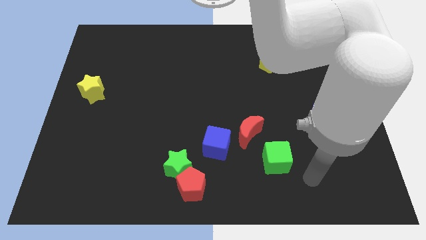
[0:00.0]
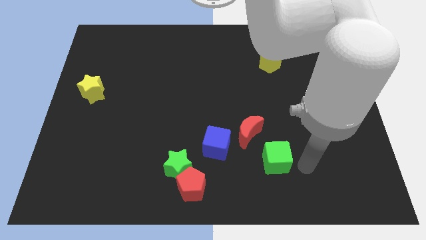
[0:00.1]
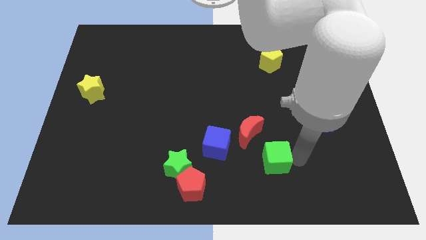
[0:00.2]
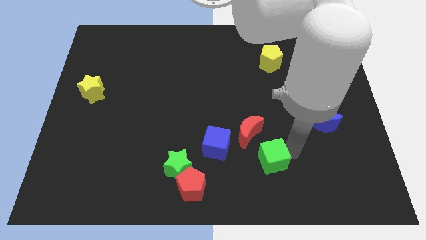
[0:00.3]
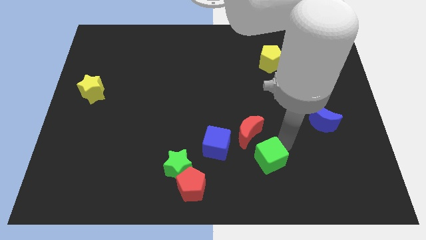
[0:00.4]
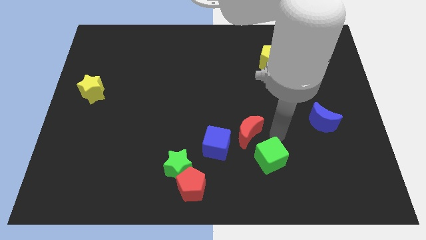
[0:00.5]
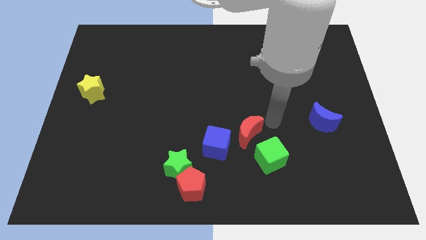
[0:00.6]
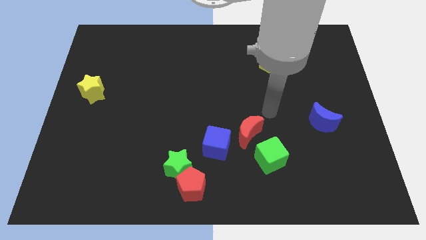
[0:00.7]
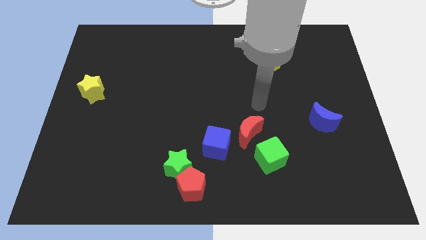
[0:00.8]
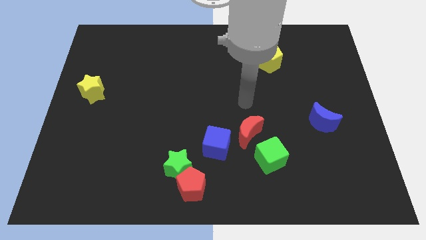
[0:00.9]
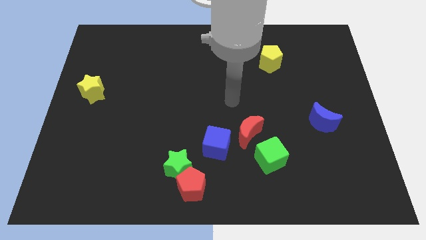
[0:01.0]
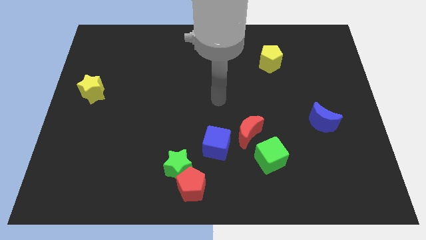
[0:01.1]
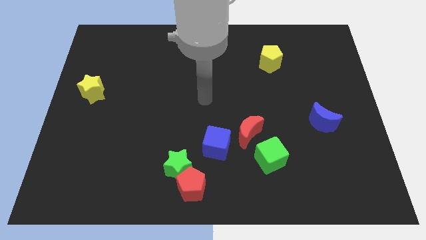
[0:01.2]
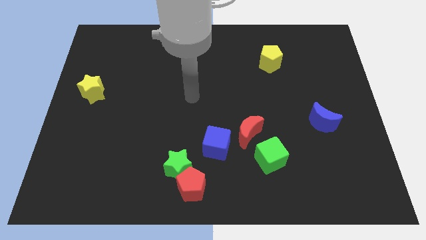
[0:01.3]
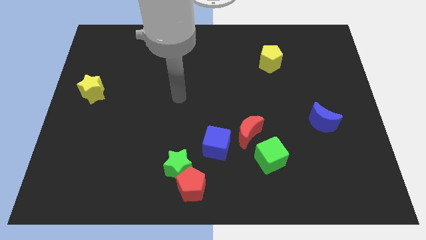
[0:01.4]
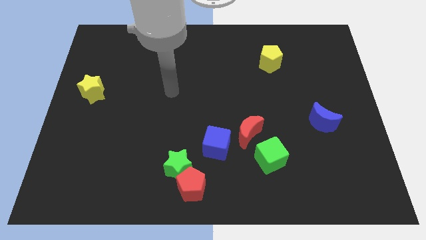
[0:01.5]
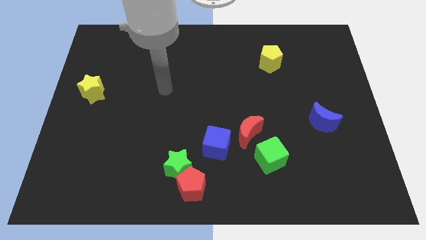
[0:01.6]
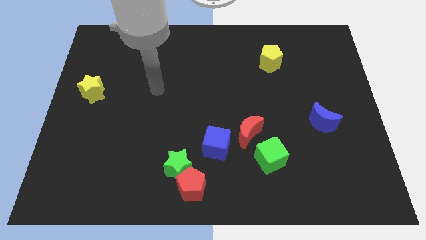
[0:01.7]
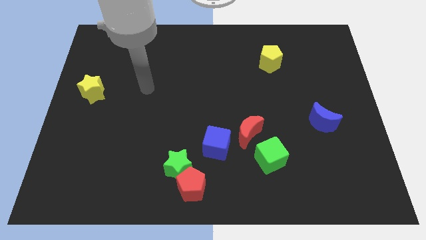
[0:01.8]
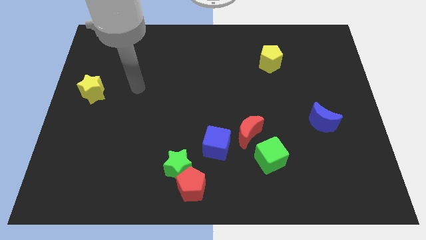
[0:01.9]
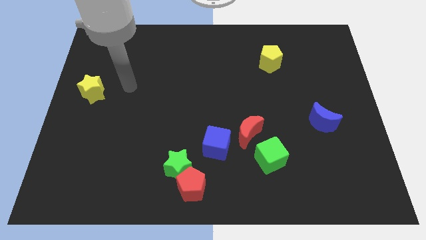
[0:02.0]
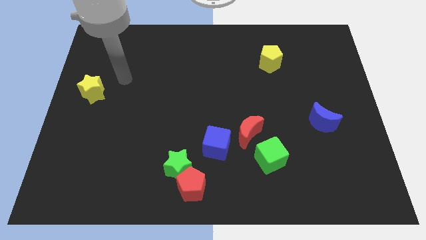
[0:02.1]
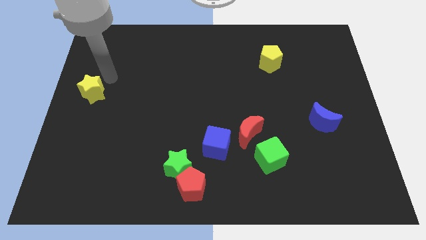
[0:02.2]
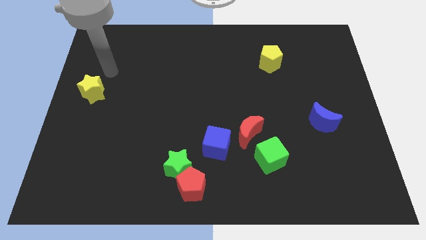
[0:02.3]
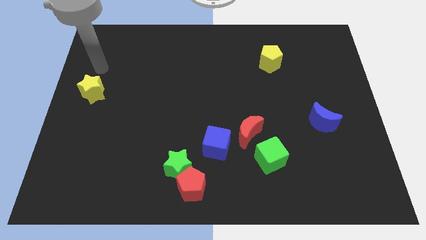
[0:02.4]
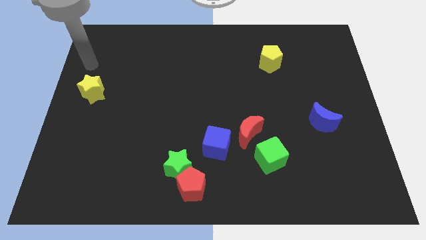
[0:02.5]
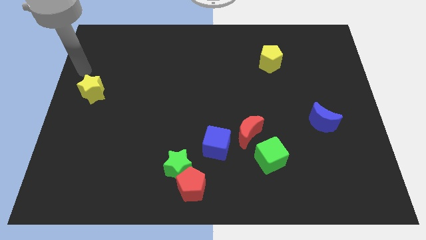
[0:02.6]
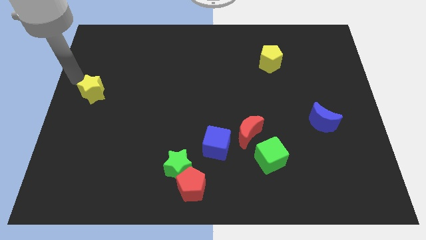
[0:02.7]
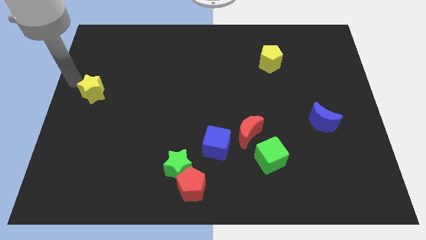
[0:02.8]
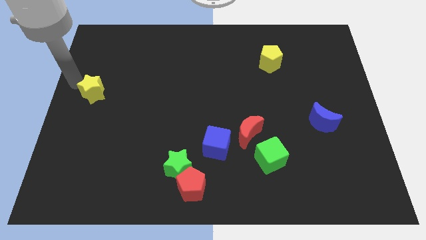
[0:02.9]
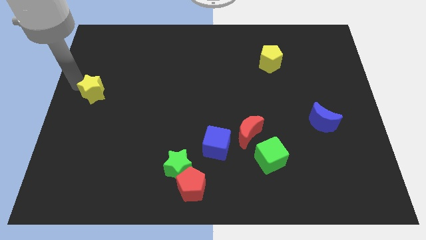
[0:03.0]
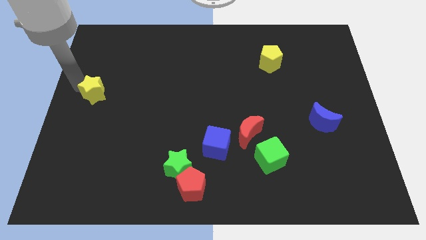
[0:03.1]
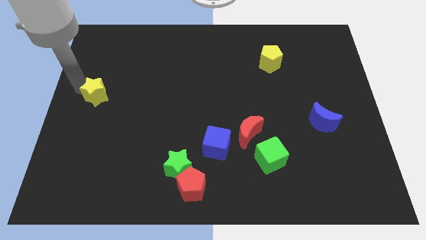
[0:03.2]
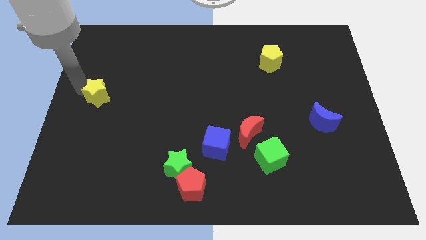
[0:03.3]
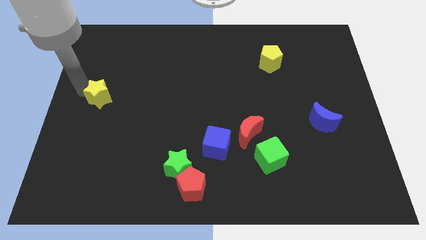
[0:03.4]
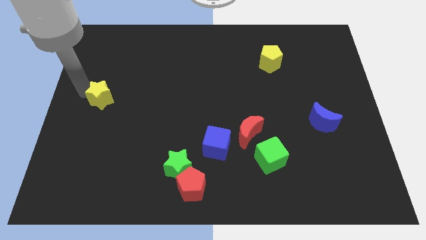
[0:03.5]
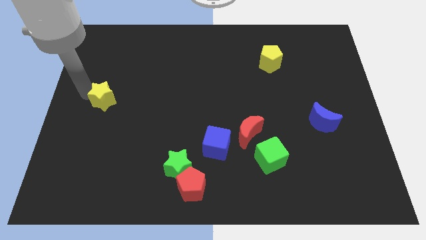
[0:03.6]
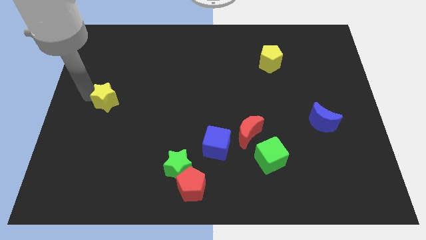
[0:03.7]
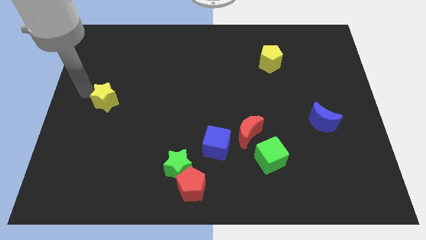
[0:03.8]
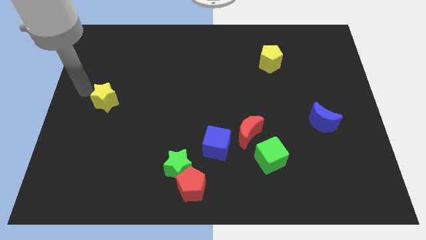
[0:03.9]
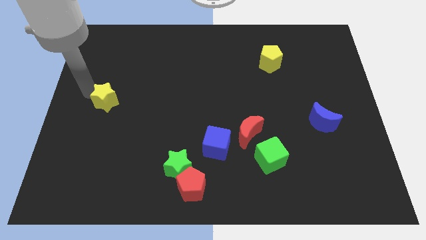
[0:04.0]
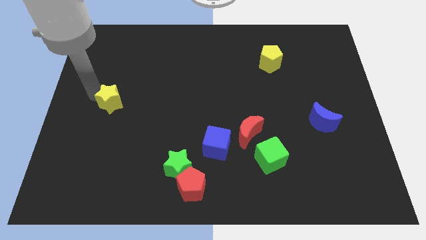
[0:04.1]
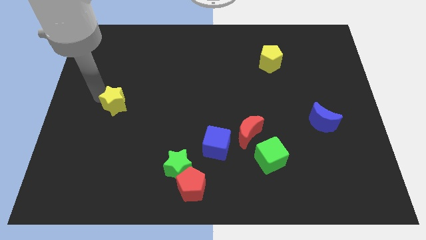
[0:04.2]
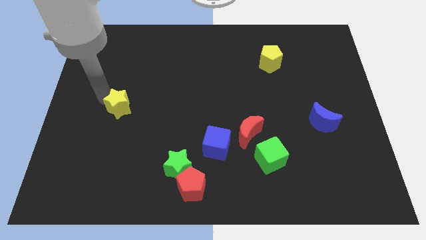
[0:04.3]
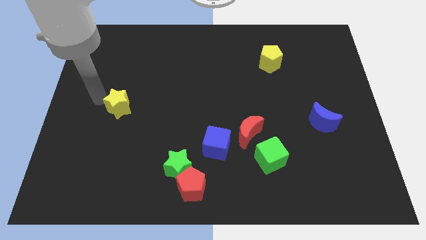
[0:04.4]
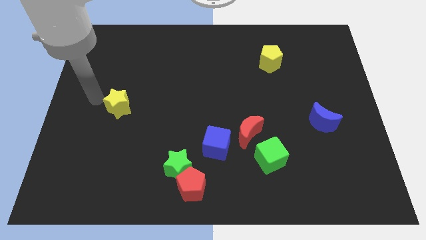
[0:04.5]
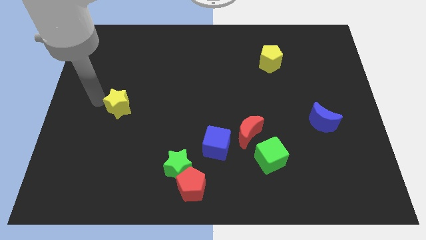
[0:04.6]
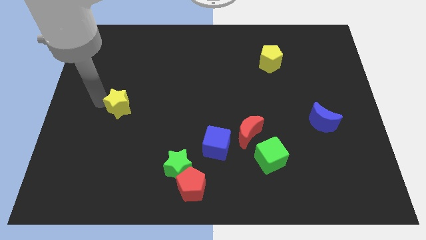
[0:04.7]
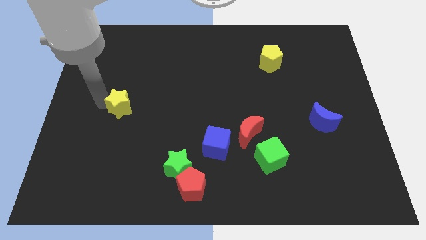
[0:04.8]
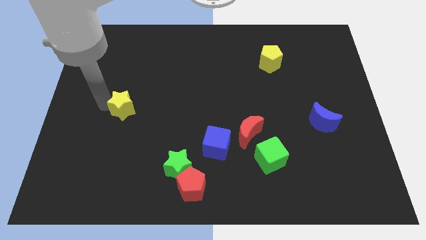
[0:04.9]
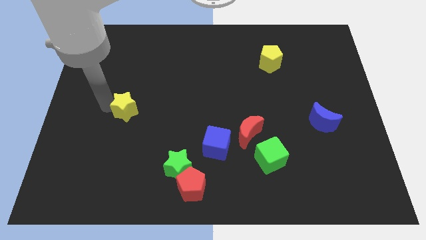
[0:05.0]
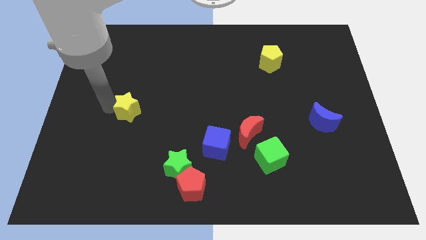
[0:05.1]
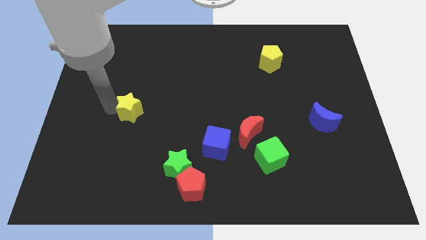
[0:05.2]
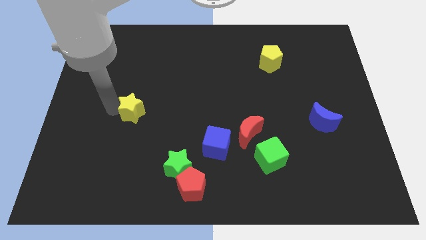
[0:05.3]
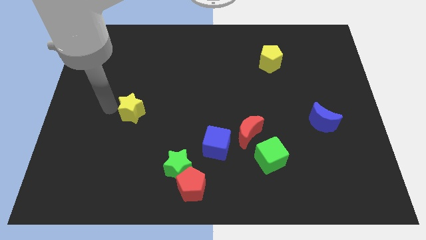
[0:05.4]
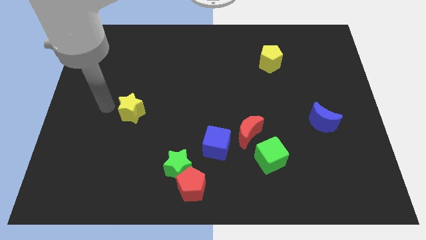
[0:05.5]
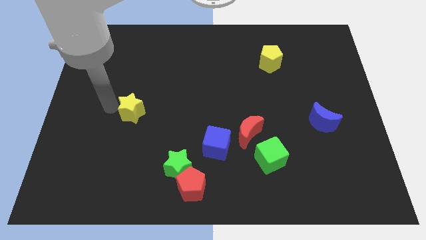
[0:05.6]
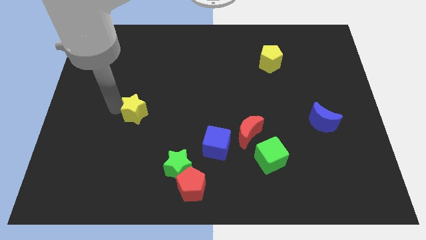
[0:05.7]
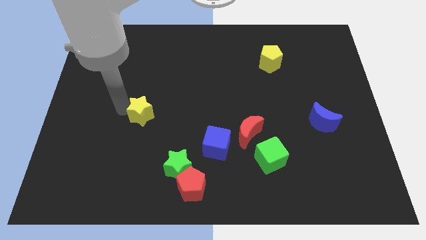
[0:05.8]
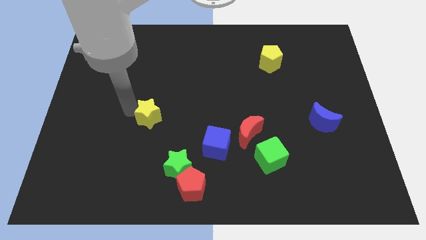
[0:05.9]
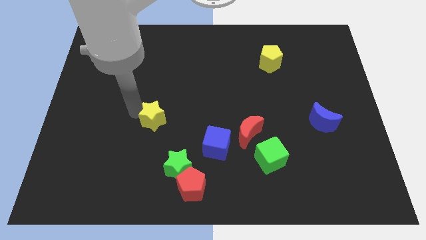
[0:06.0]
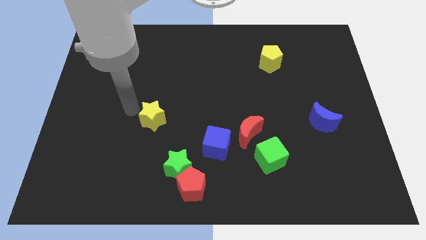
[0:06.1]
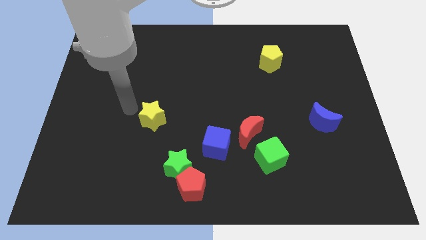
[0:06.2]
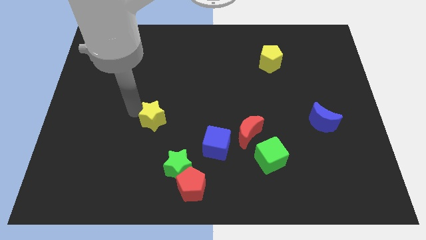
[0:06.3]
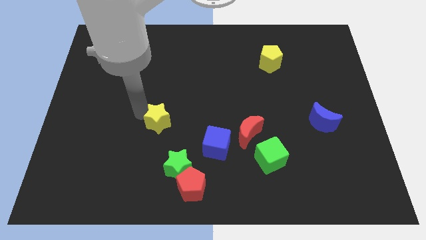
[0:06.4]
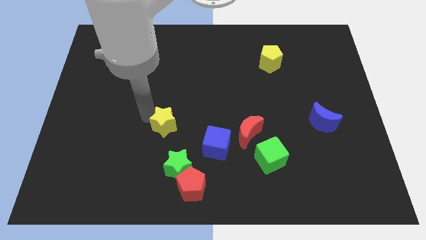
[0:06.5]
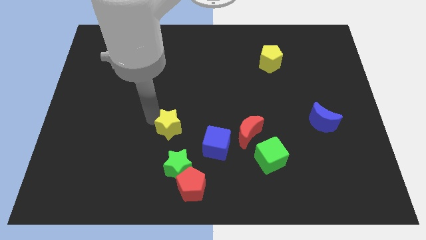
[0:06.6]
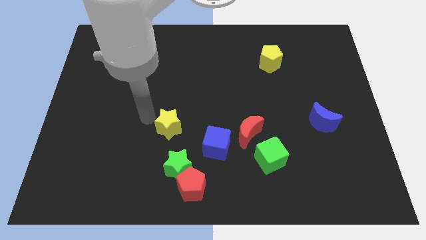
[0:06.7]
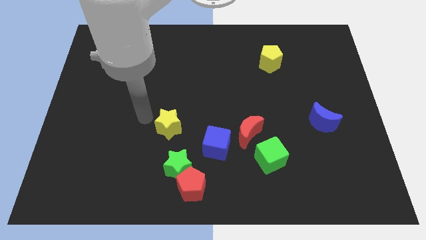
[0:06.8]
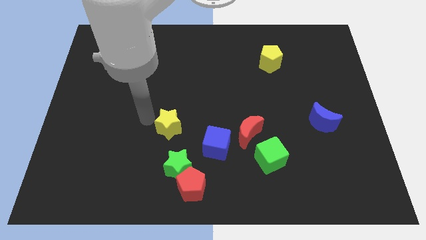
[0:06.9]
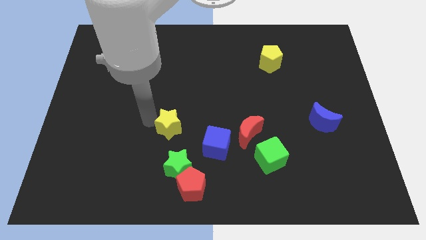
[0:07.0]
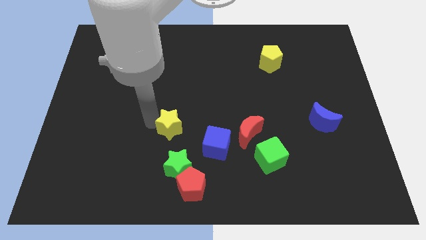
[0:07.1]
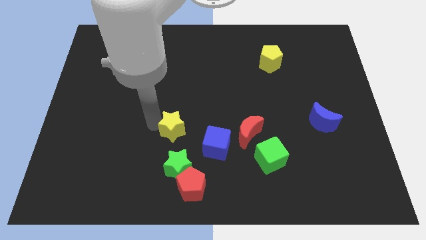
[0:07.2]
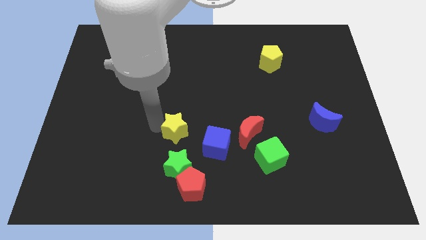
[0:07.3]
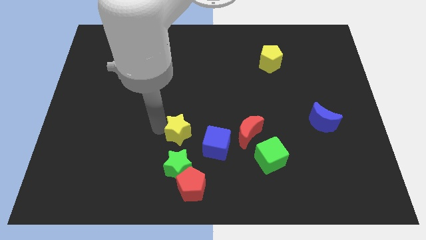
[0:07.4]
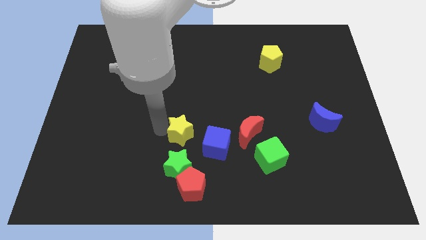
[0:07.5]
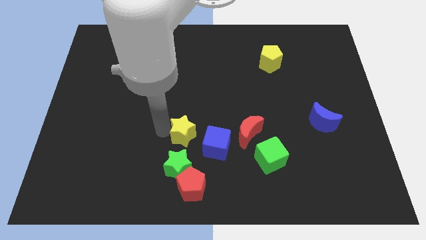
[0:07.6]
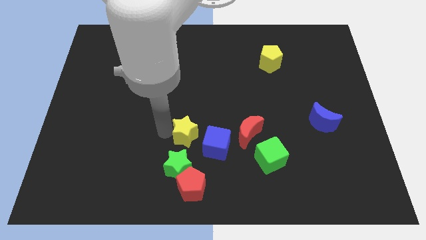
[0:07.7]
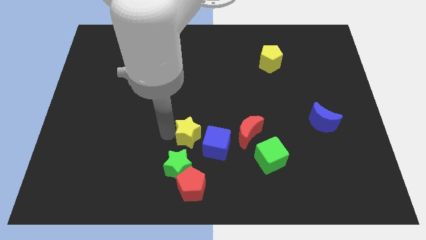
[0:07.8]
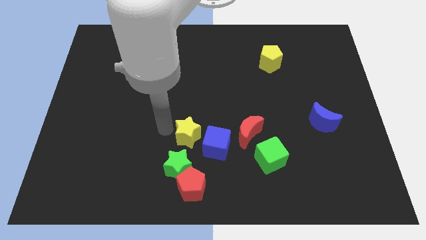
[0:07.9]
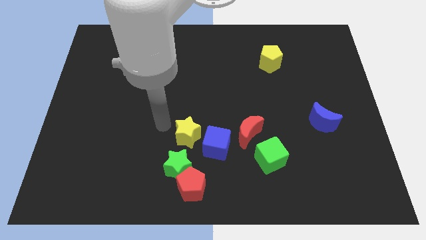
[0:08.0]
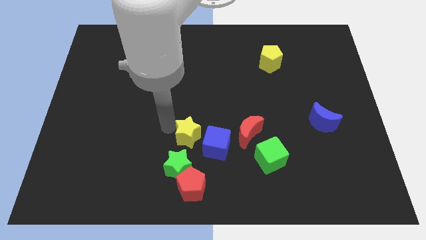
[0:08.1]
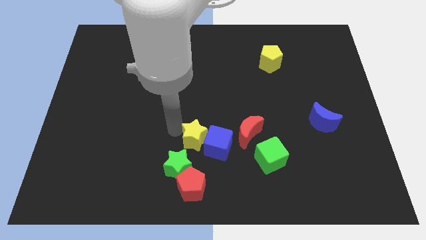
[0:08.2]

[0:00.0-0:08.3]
slide the yellow star to the blue cube
